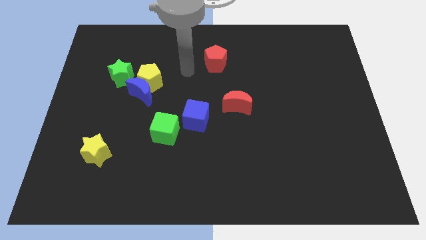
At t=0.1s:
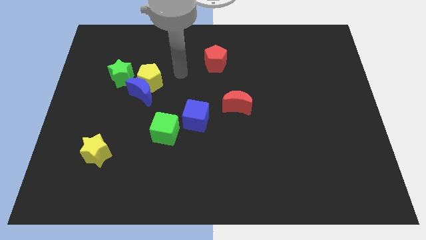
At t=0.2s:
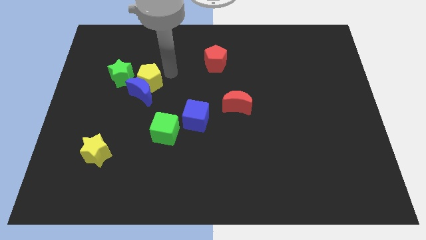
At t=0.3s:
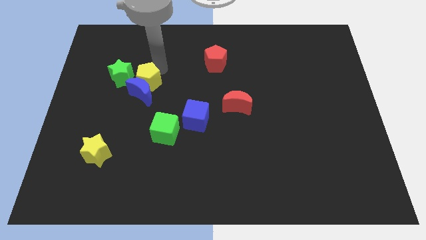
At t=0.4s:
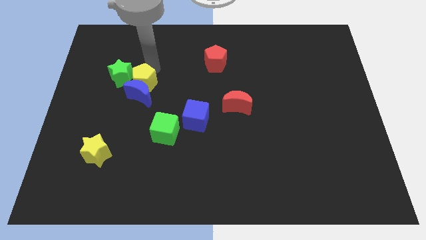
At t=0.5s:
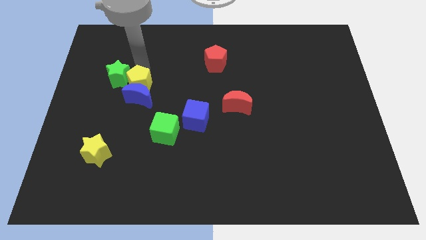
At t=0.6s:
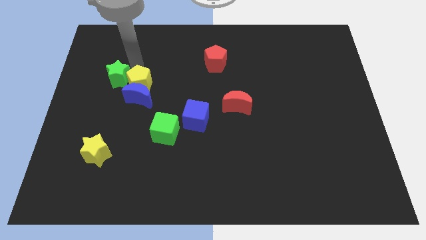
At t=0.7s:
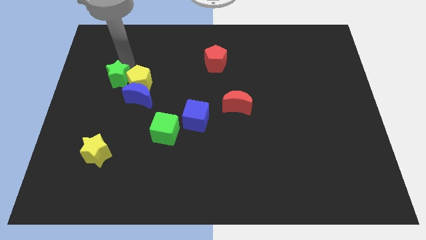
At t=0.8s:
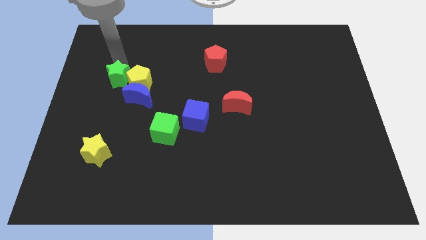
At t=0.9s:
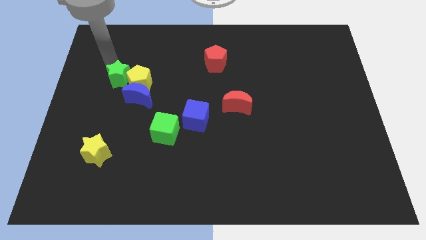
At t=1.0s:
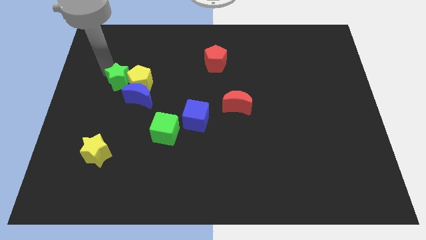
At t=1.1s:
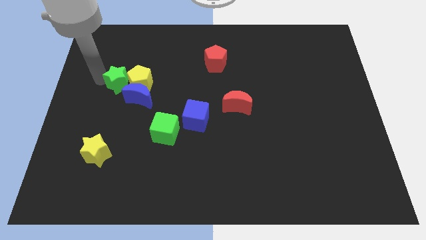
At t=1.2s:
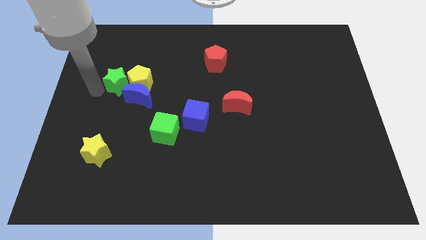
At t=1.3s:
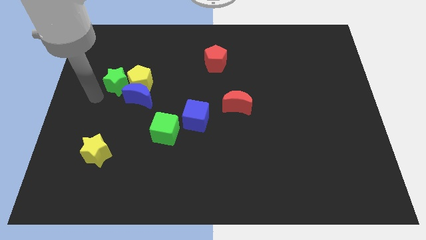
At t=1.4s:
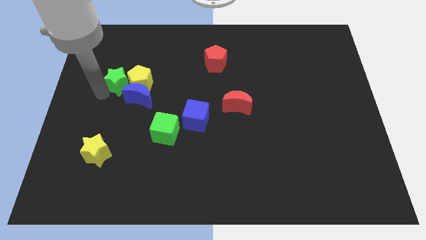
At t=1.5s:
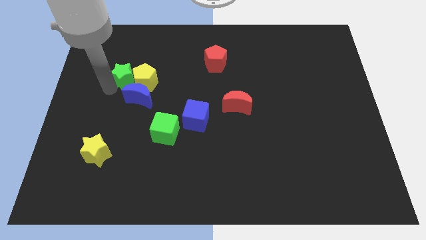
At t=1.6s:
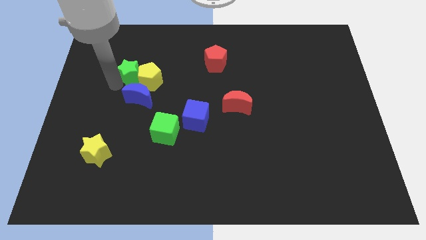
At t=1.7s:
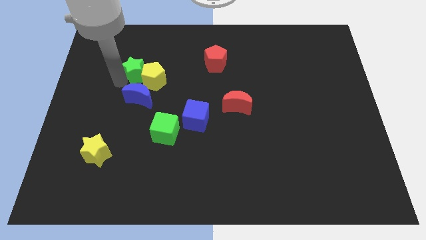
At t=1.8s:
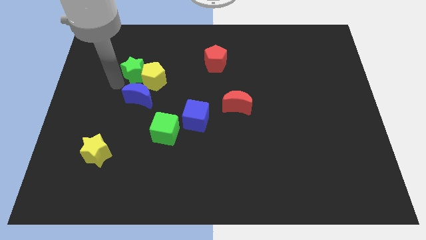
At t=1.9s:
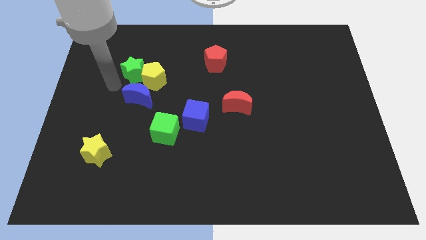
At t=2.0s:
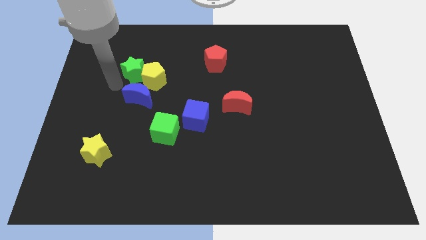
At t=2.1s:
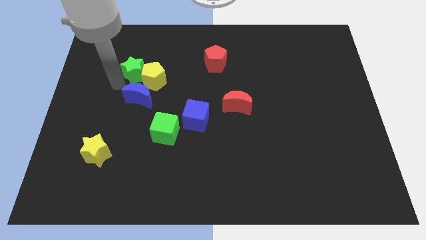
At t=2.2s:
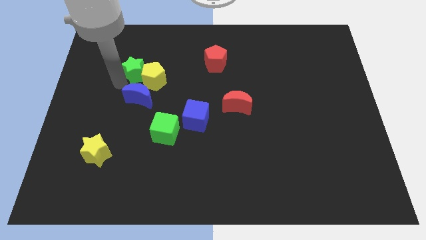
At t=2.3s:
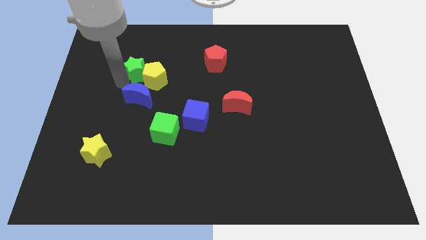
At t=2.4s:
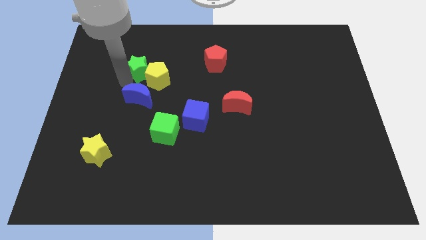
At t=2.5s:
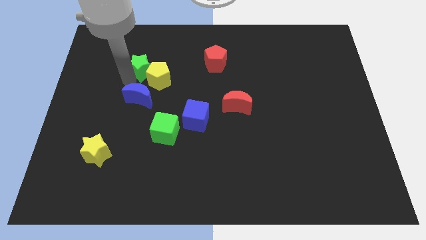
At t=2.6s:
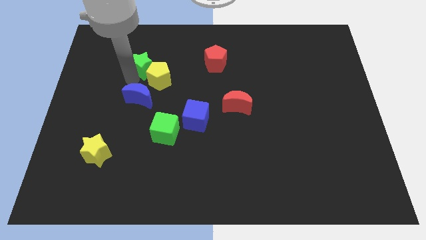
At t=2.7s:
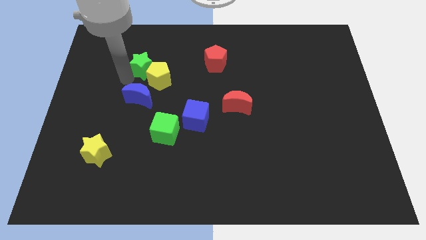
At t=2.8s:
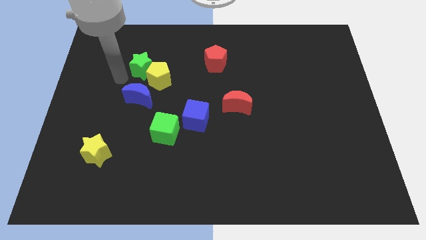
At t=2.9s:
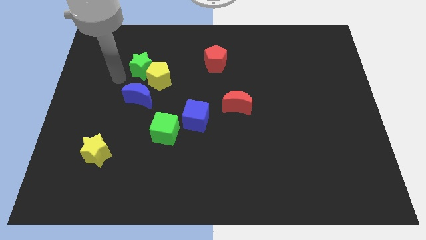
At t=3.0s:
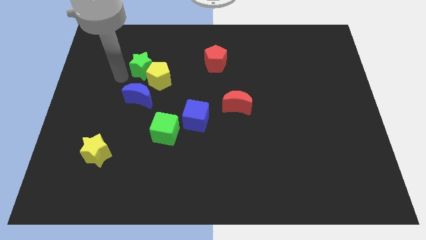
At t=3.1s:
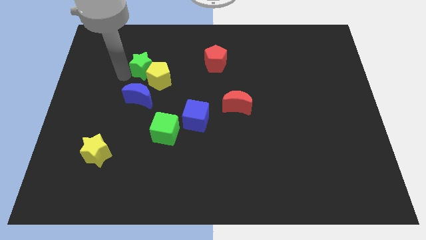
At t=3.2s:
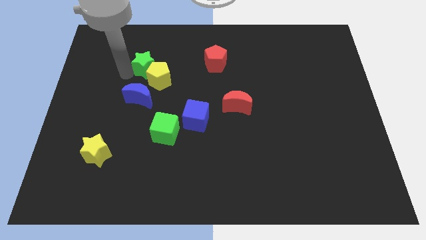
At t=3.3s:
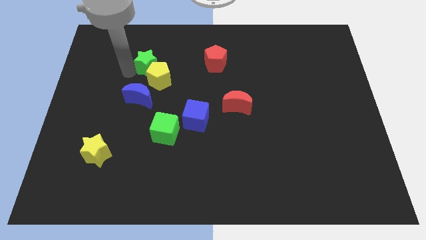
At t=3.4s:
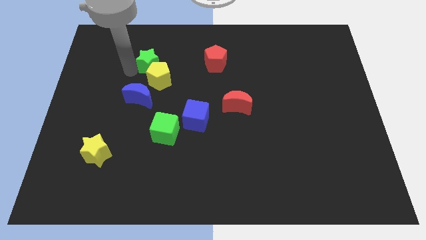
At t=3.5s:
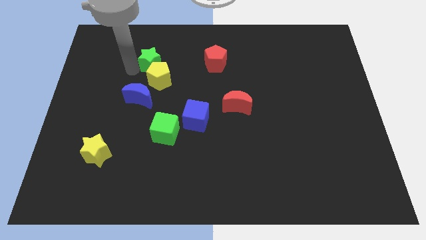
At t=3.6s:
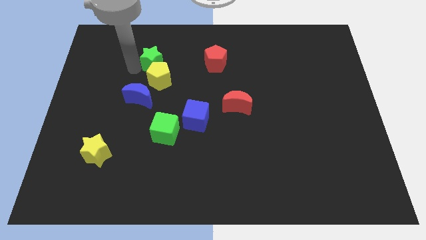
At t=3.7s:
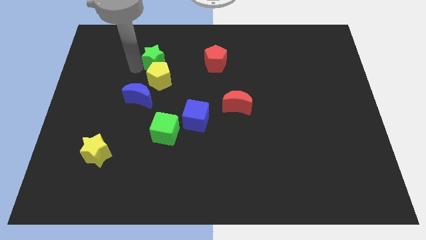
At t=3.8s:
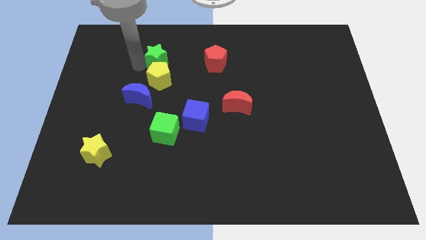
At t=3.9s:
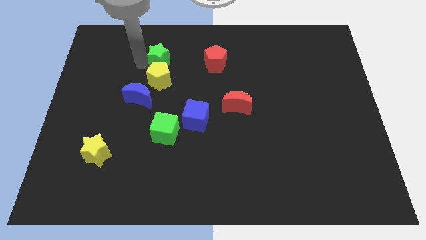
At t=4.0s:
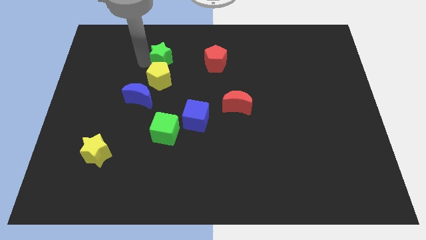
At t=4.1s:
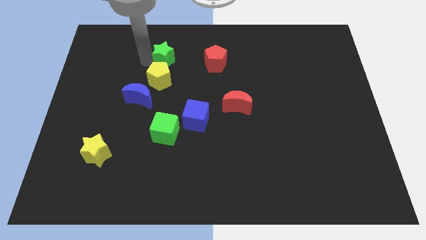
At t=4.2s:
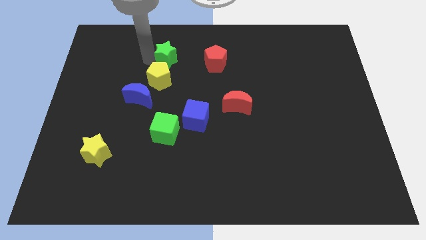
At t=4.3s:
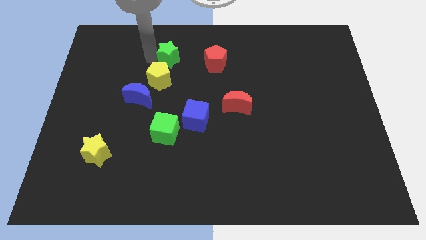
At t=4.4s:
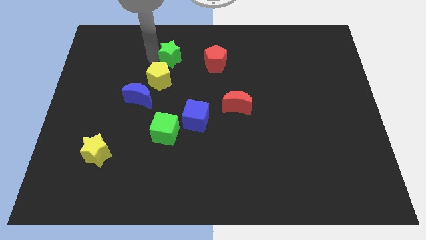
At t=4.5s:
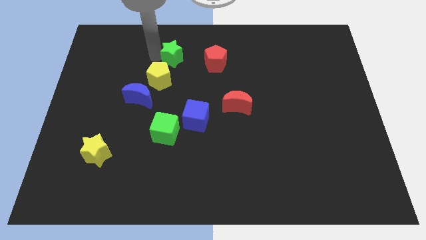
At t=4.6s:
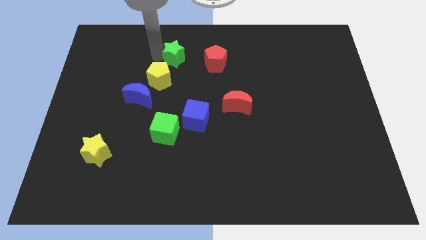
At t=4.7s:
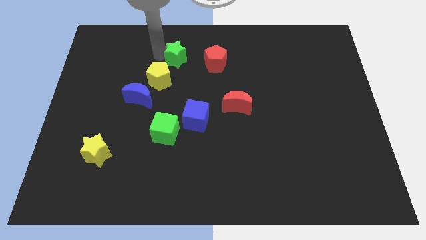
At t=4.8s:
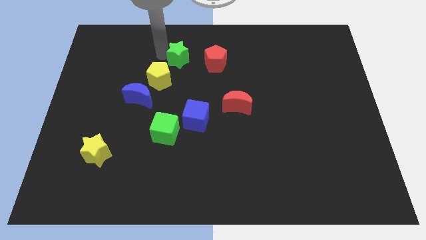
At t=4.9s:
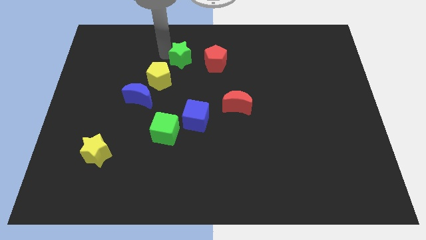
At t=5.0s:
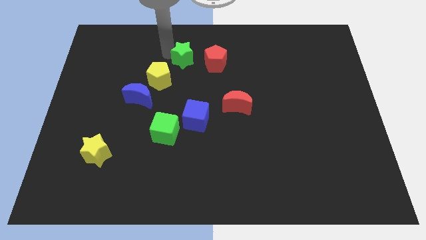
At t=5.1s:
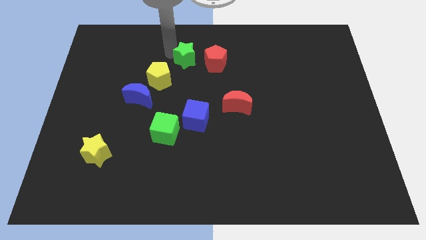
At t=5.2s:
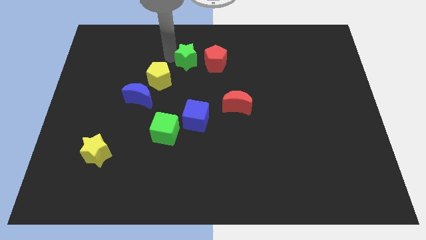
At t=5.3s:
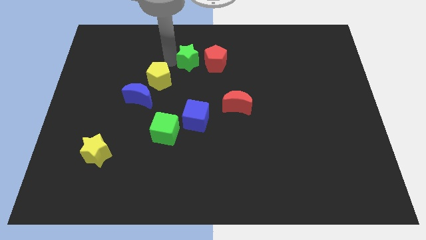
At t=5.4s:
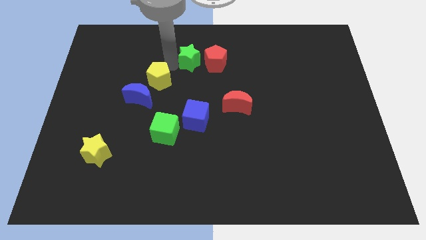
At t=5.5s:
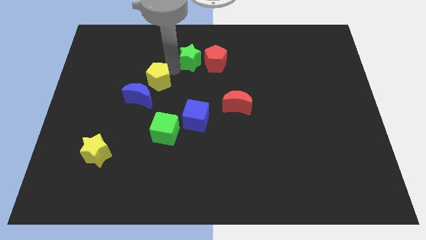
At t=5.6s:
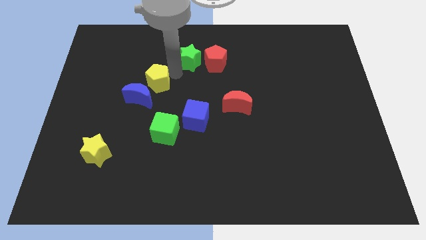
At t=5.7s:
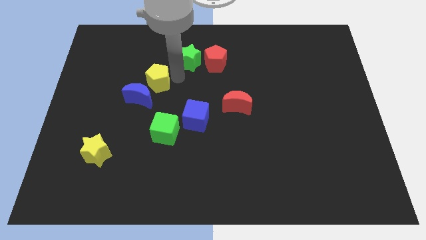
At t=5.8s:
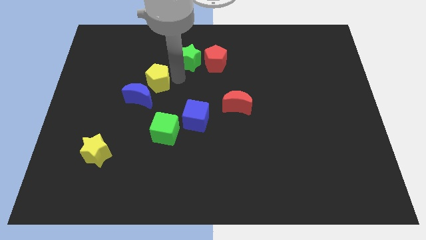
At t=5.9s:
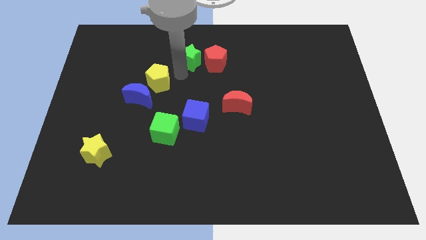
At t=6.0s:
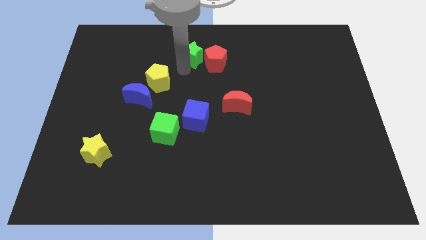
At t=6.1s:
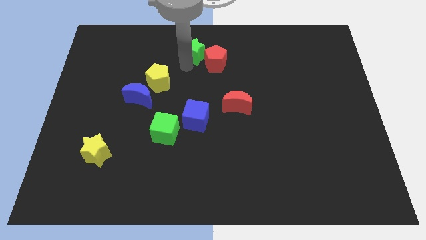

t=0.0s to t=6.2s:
put the green star to the top

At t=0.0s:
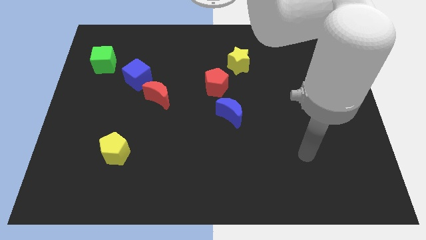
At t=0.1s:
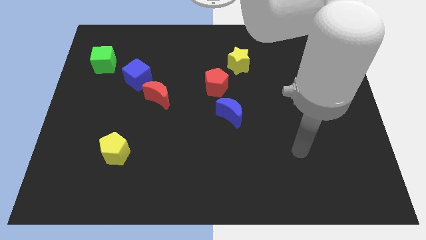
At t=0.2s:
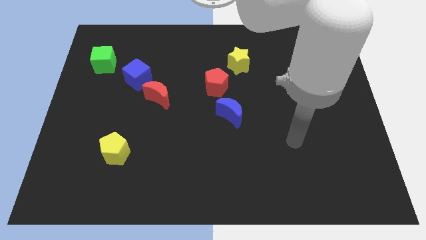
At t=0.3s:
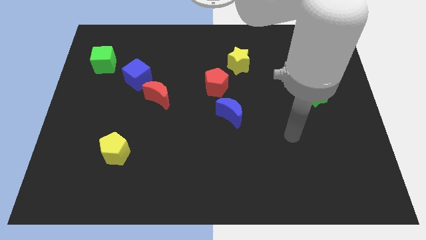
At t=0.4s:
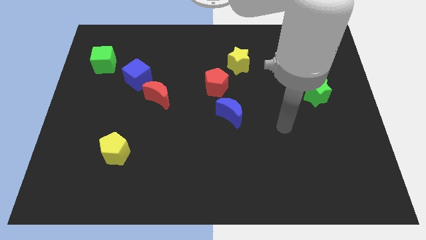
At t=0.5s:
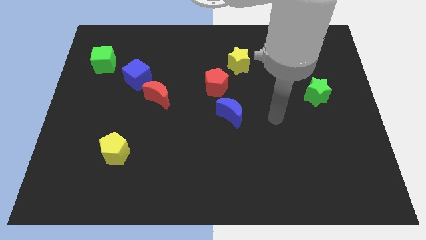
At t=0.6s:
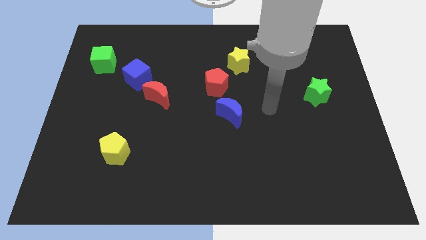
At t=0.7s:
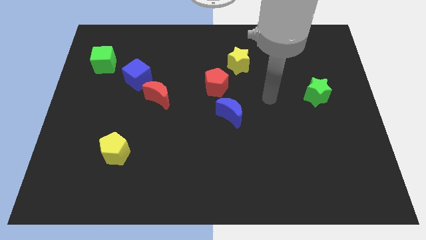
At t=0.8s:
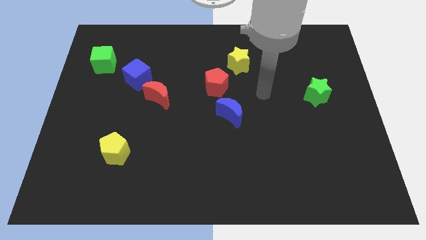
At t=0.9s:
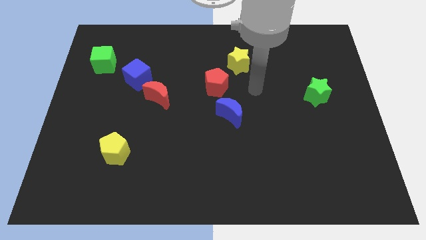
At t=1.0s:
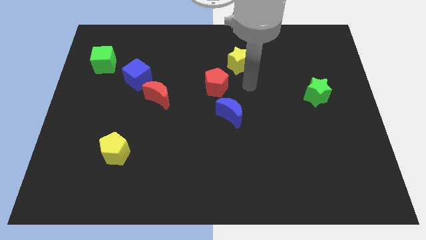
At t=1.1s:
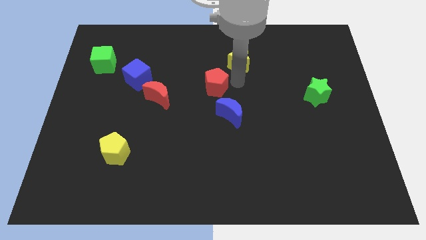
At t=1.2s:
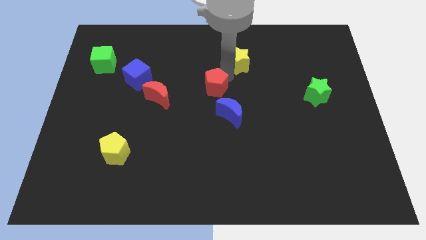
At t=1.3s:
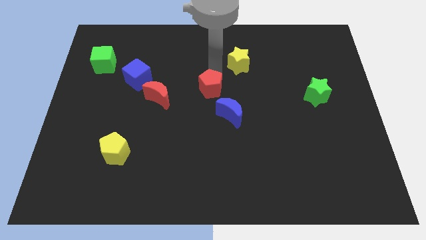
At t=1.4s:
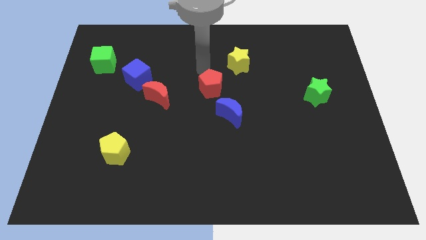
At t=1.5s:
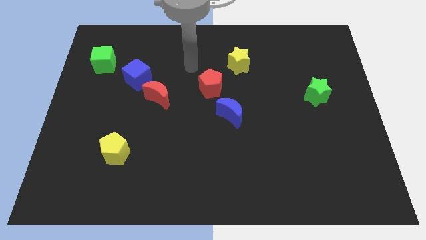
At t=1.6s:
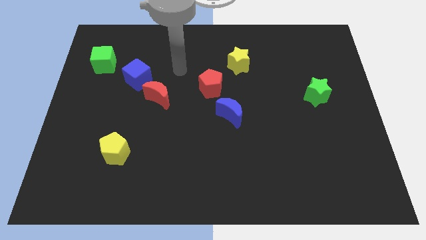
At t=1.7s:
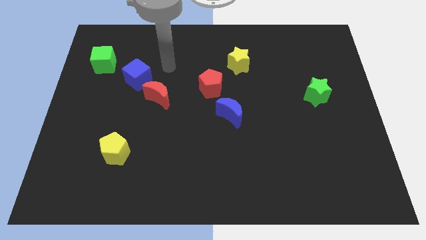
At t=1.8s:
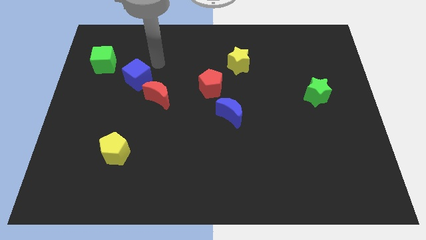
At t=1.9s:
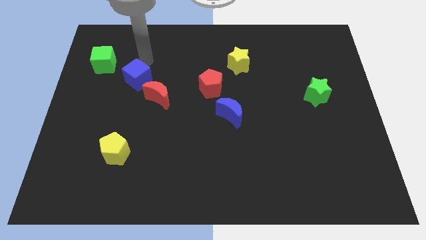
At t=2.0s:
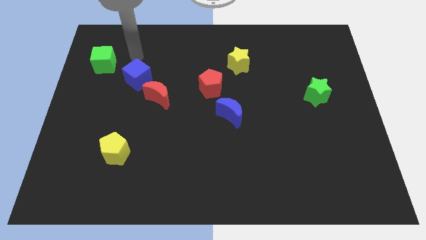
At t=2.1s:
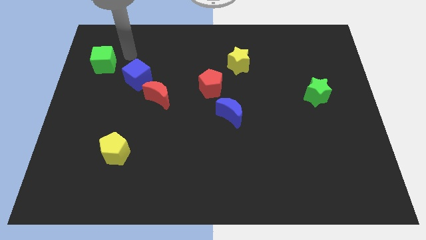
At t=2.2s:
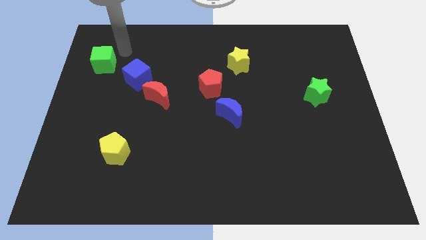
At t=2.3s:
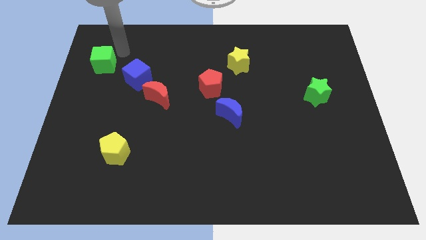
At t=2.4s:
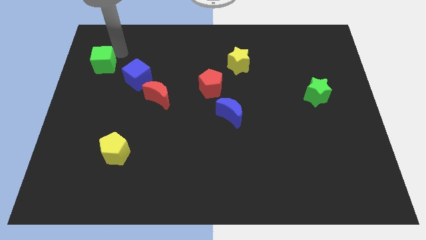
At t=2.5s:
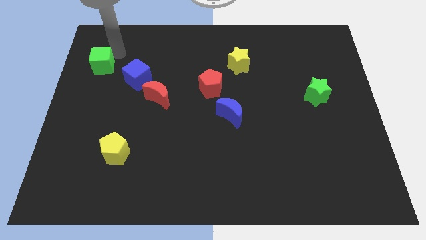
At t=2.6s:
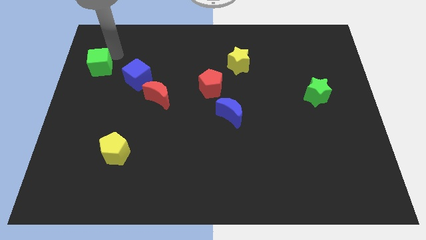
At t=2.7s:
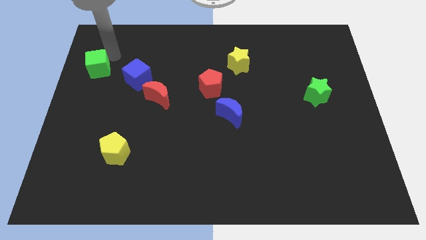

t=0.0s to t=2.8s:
push the green cube to the center left
